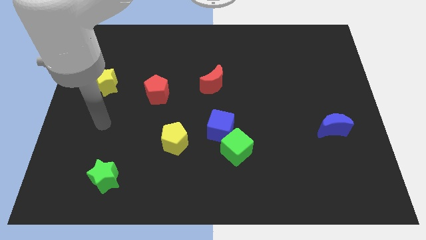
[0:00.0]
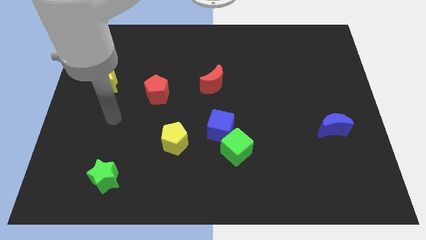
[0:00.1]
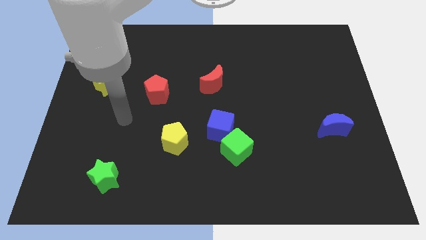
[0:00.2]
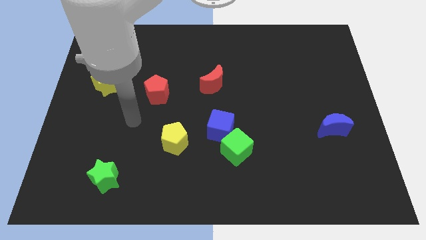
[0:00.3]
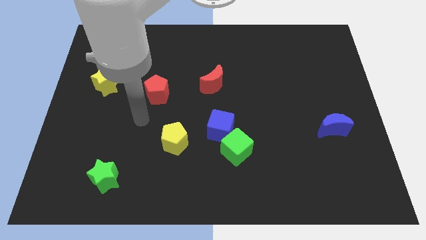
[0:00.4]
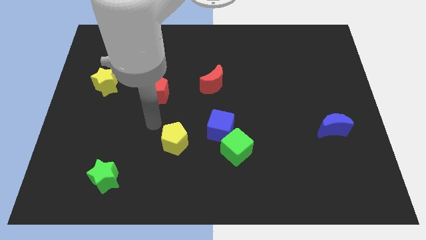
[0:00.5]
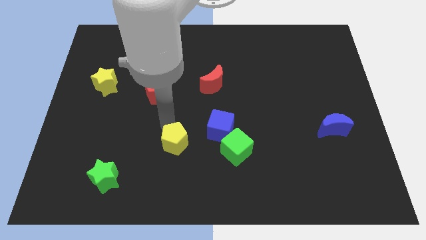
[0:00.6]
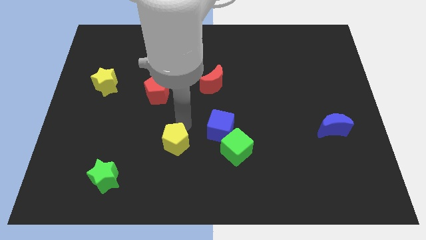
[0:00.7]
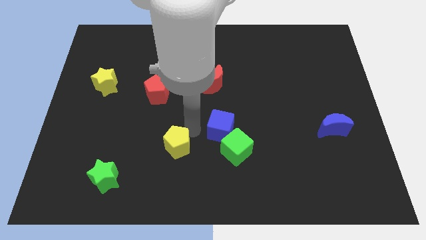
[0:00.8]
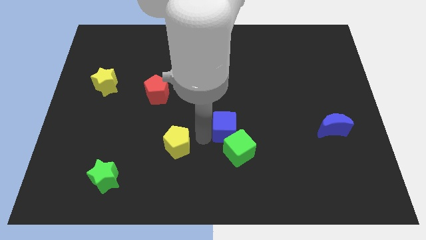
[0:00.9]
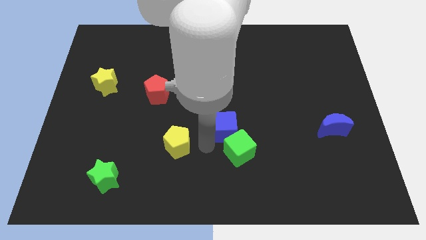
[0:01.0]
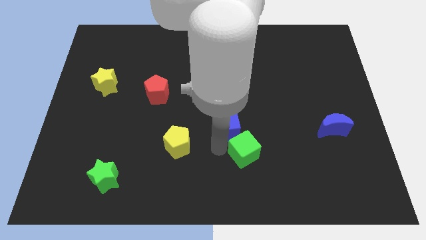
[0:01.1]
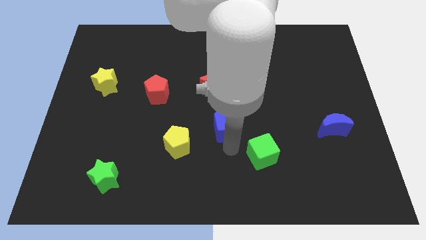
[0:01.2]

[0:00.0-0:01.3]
move the blue cube away from the green cube

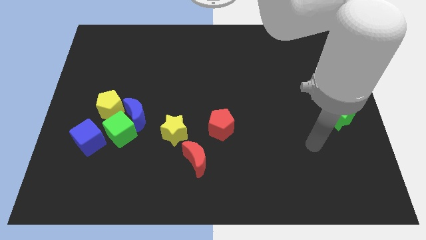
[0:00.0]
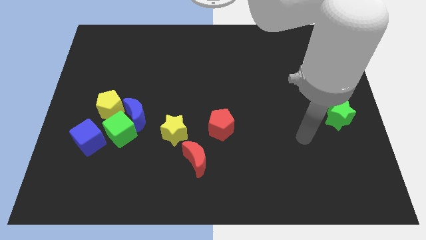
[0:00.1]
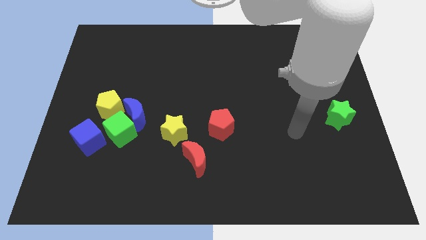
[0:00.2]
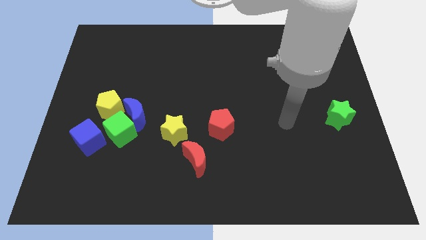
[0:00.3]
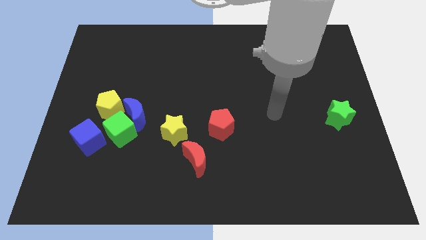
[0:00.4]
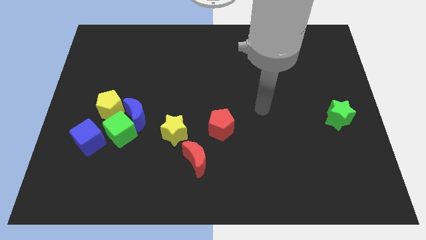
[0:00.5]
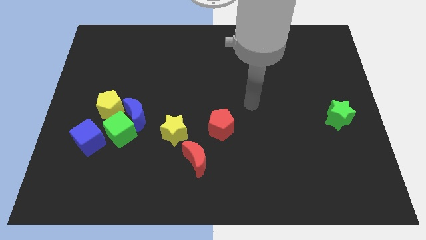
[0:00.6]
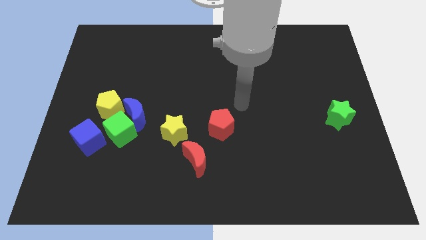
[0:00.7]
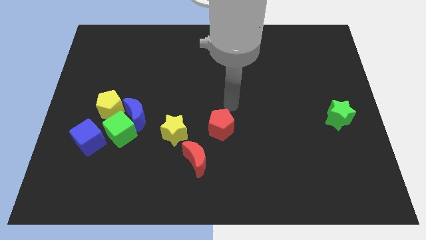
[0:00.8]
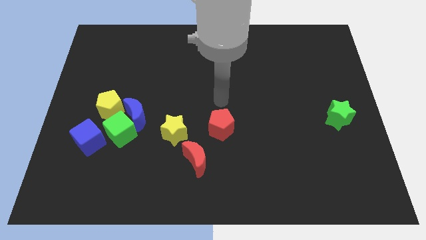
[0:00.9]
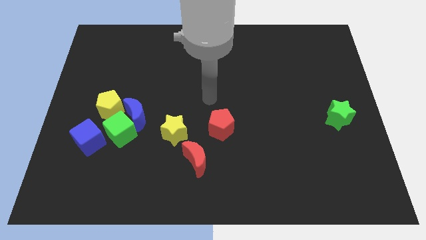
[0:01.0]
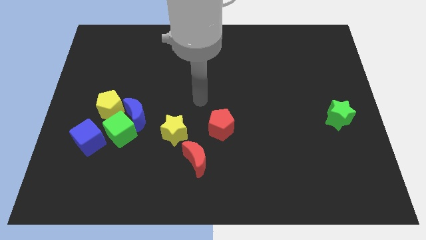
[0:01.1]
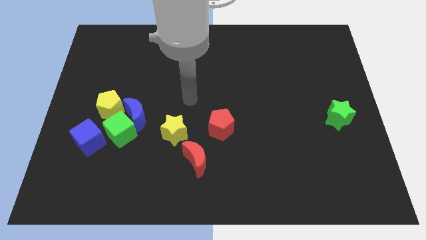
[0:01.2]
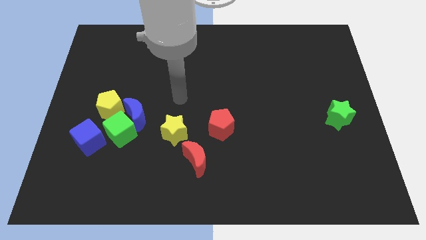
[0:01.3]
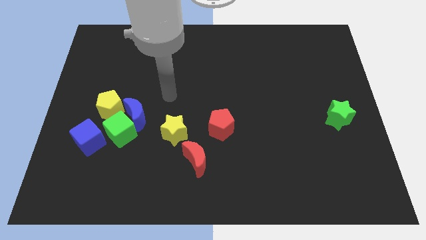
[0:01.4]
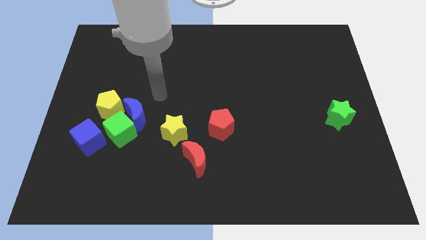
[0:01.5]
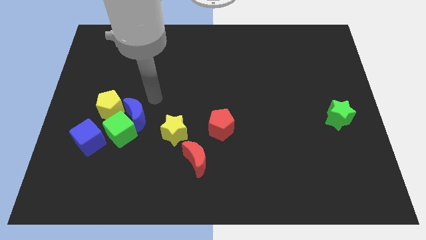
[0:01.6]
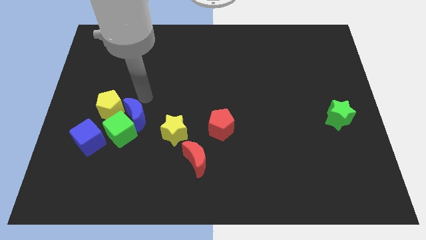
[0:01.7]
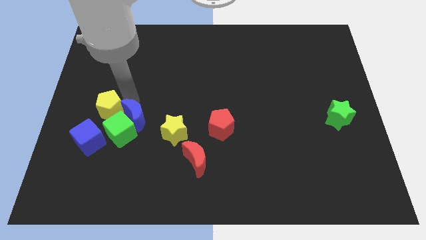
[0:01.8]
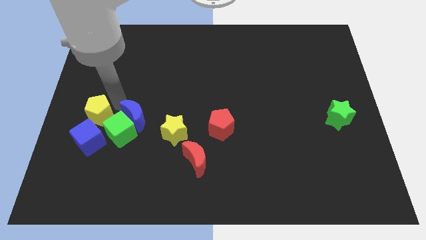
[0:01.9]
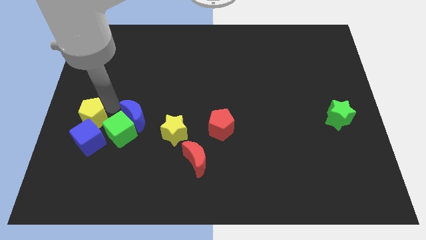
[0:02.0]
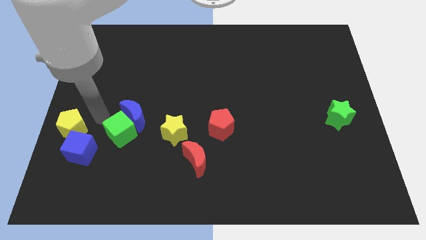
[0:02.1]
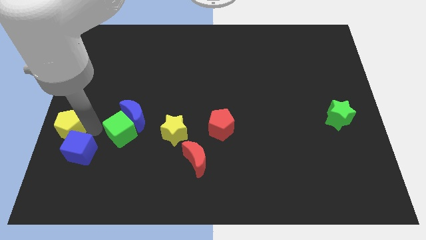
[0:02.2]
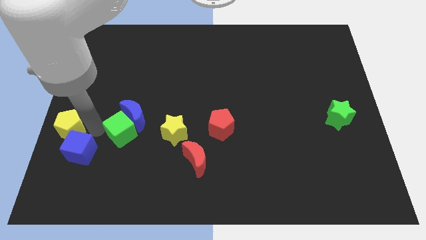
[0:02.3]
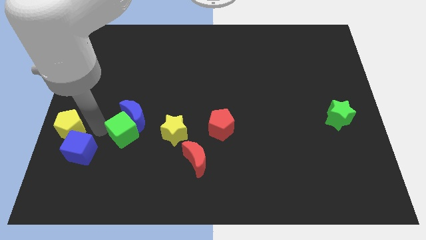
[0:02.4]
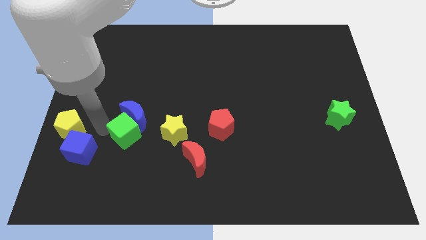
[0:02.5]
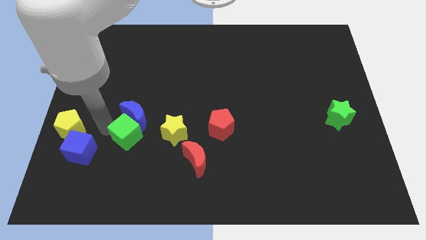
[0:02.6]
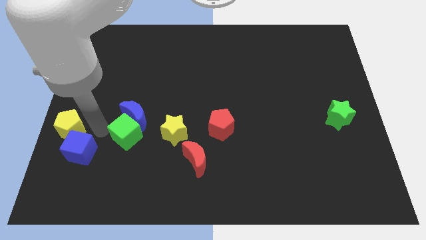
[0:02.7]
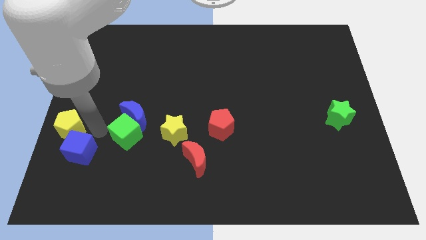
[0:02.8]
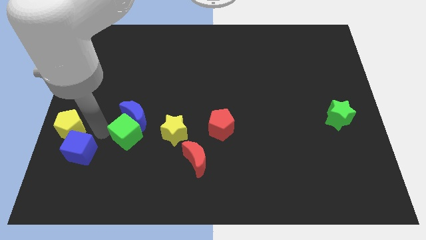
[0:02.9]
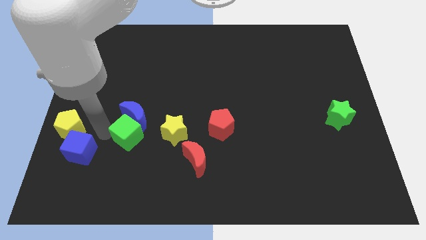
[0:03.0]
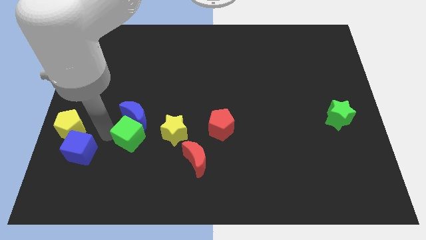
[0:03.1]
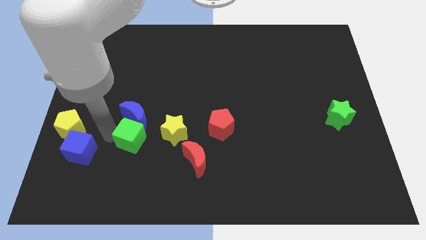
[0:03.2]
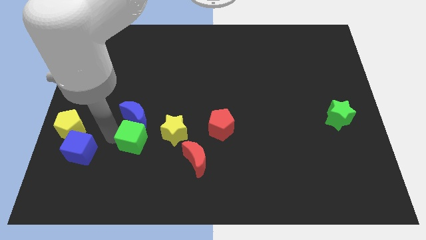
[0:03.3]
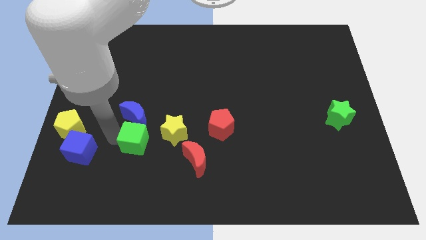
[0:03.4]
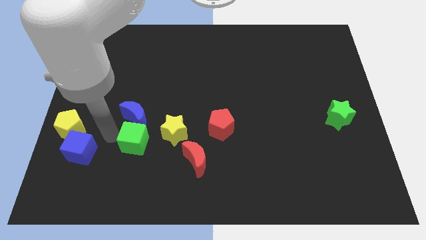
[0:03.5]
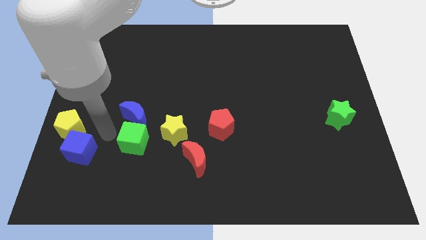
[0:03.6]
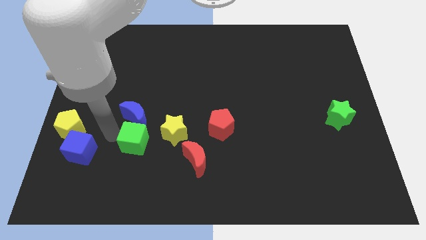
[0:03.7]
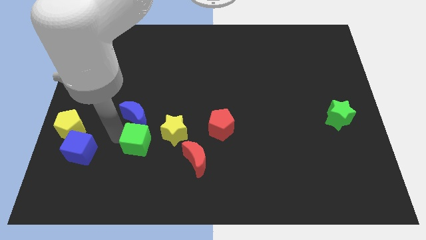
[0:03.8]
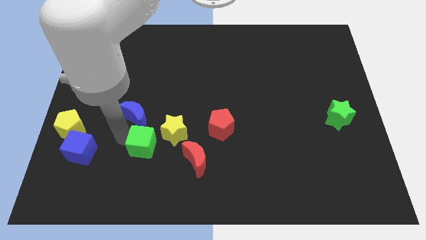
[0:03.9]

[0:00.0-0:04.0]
separate the green cube from the blue moon, blue cube, and yellow pentagon

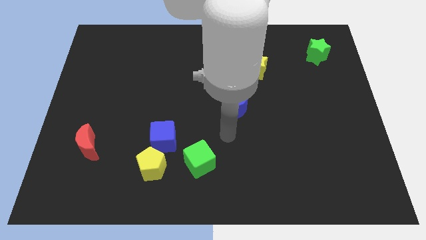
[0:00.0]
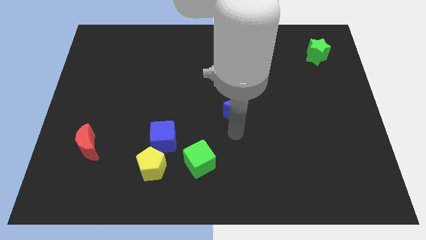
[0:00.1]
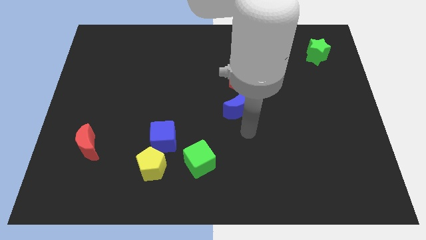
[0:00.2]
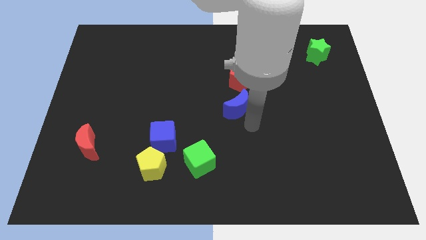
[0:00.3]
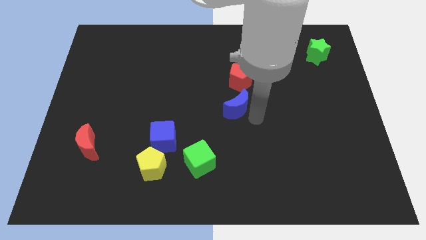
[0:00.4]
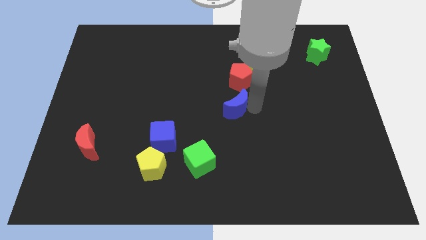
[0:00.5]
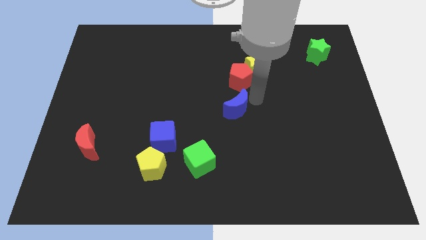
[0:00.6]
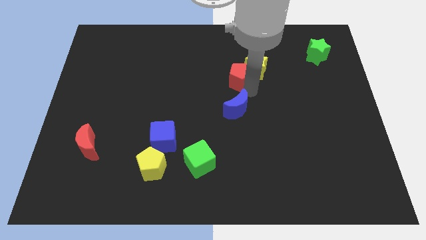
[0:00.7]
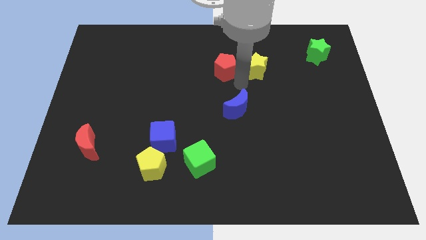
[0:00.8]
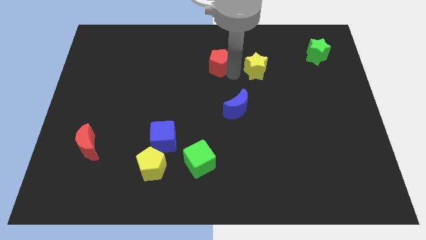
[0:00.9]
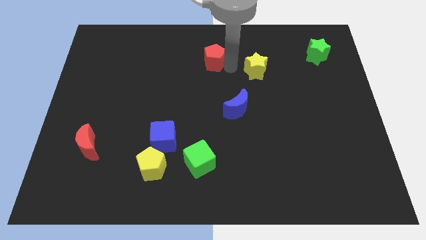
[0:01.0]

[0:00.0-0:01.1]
separate the yellow star from the red pentagon

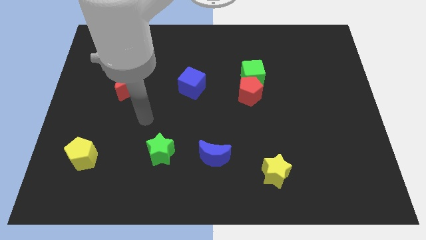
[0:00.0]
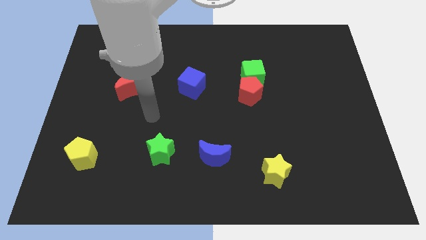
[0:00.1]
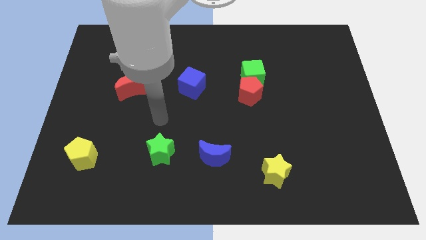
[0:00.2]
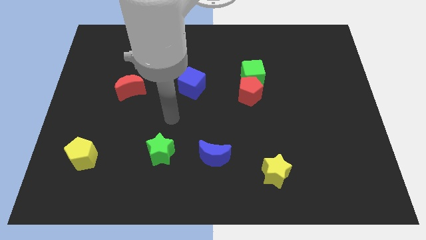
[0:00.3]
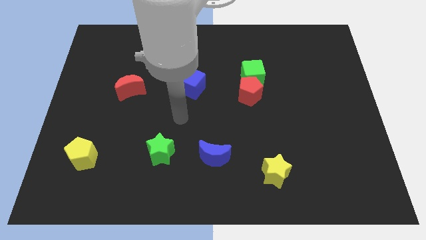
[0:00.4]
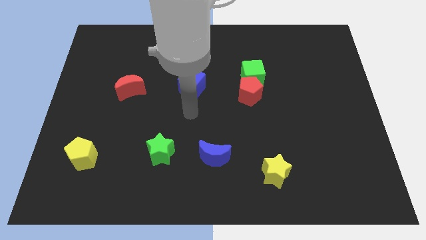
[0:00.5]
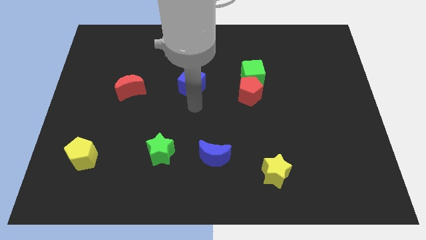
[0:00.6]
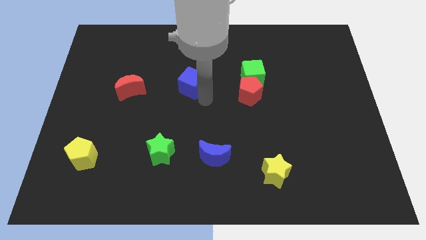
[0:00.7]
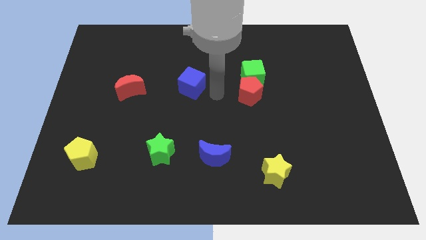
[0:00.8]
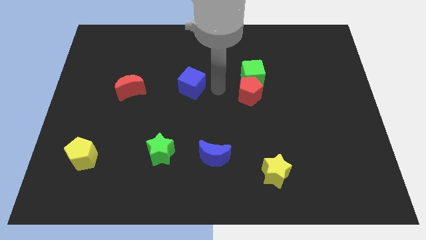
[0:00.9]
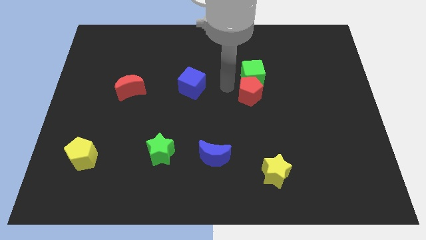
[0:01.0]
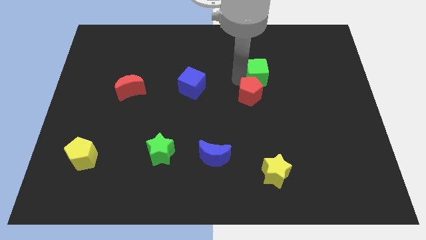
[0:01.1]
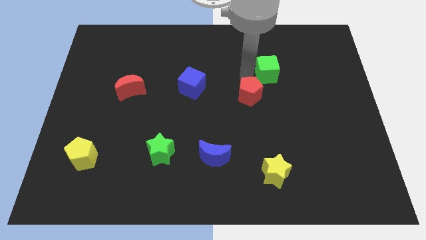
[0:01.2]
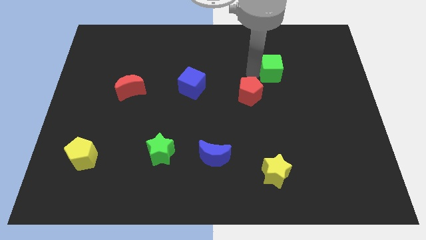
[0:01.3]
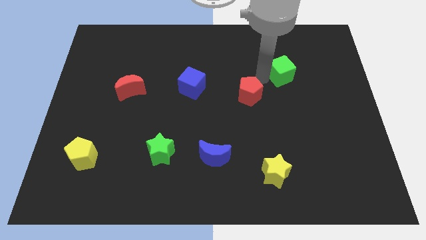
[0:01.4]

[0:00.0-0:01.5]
move the red pentagon away from the green cube

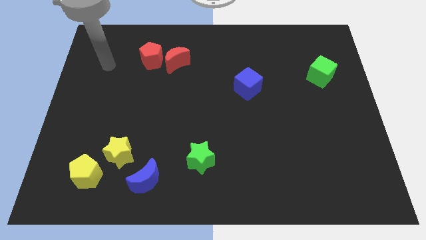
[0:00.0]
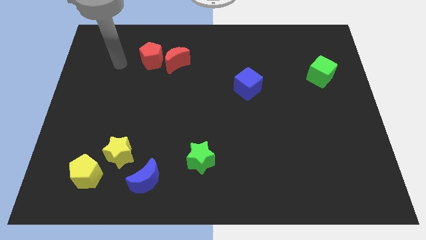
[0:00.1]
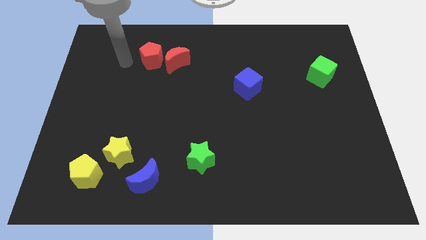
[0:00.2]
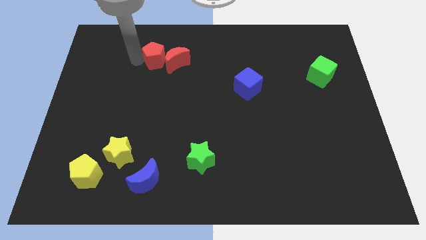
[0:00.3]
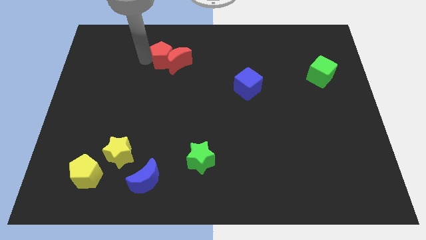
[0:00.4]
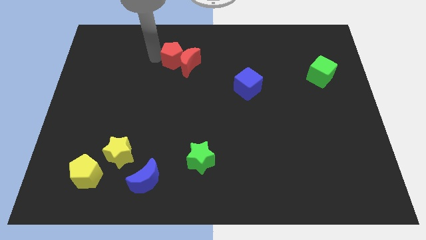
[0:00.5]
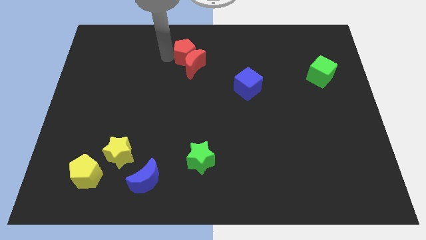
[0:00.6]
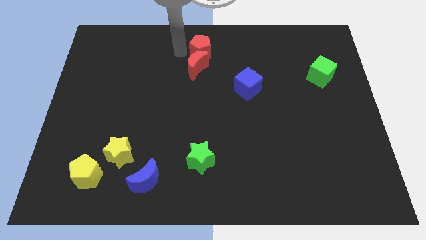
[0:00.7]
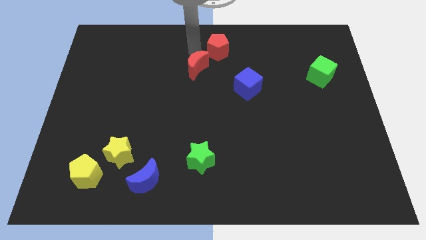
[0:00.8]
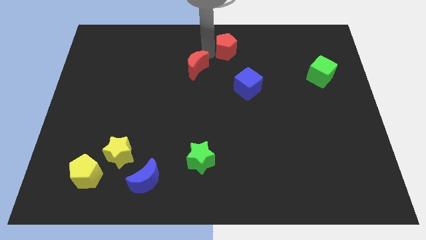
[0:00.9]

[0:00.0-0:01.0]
move the red moon away from the red pentagon

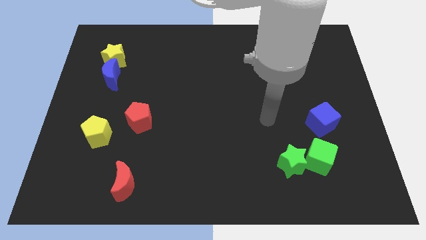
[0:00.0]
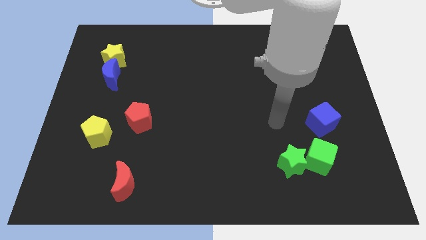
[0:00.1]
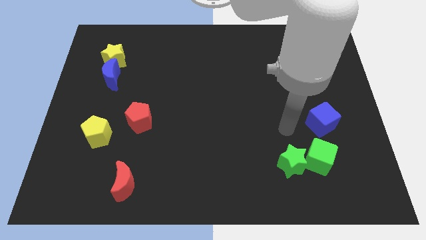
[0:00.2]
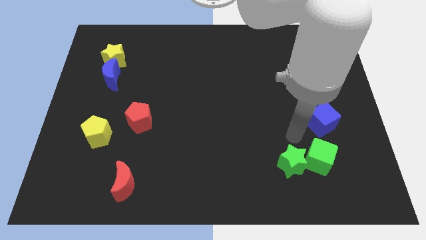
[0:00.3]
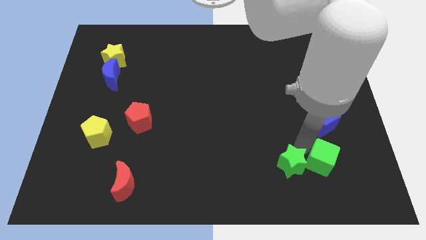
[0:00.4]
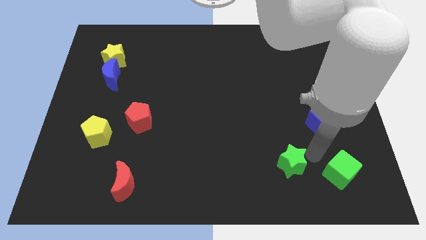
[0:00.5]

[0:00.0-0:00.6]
move the green star away from the green cube
